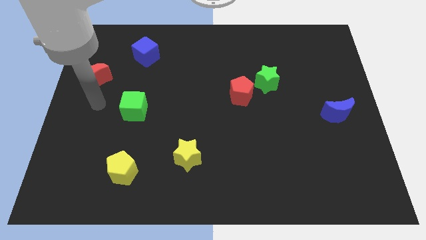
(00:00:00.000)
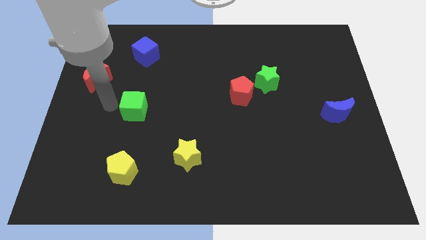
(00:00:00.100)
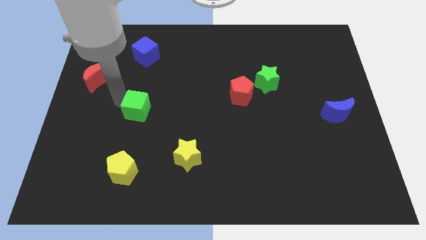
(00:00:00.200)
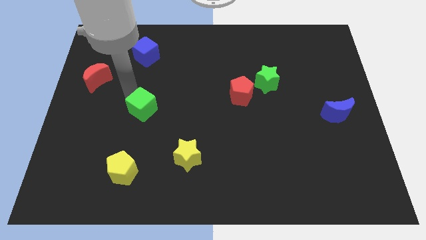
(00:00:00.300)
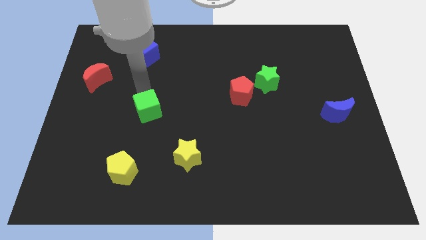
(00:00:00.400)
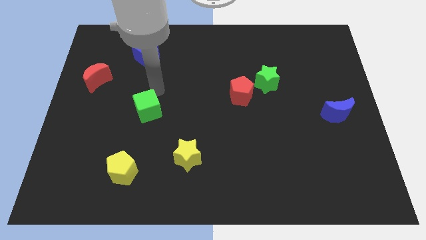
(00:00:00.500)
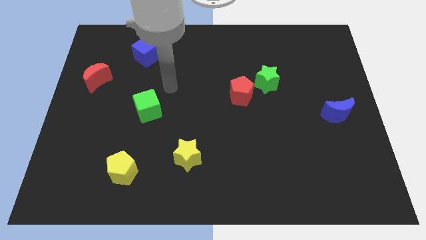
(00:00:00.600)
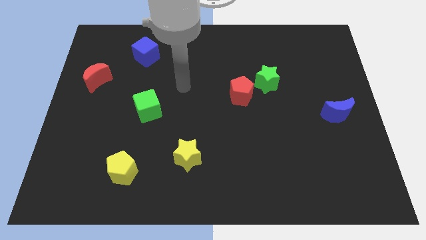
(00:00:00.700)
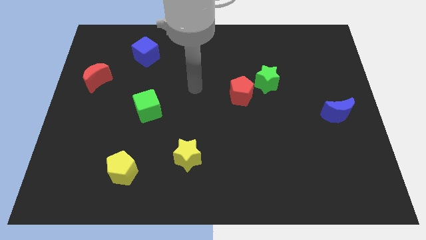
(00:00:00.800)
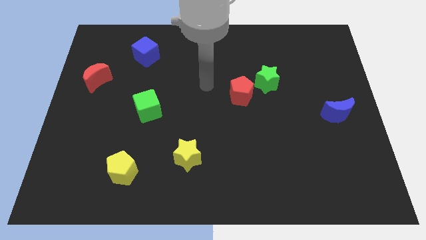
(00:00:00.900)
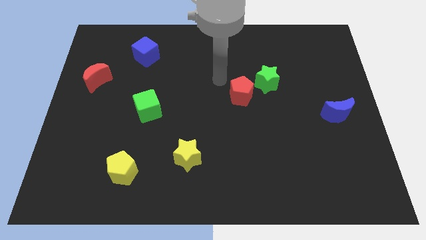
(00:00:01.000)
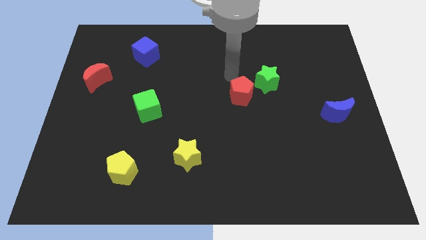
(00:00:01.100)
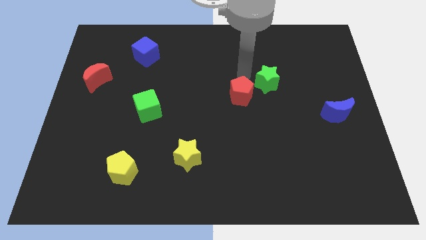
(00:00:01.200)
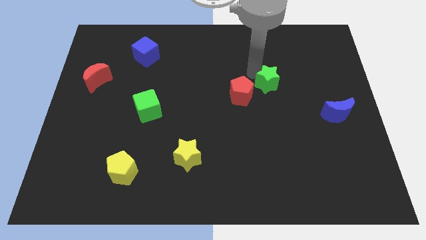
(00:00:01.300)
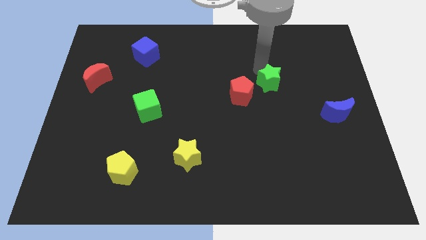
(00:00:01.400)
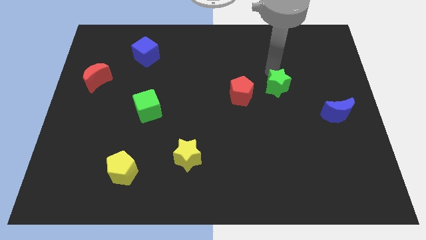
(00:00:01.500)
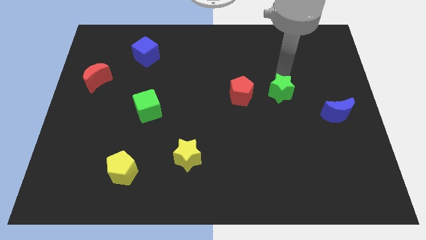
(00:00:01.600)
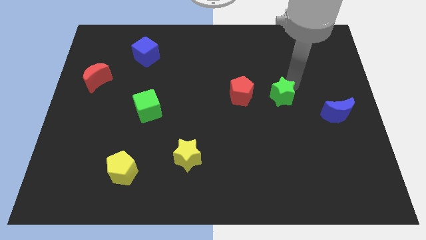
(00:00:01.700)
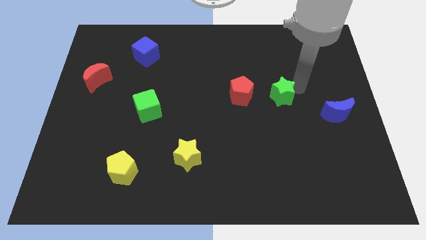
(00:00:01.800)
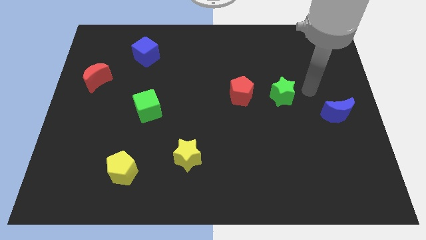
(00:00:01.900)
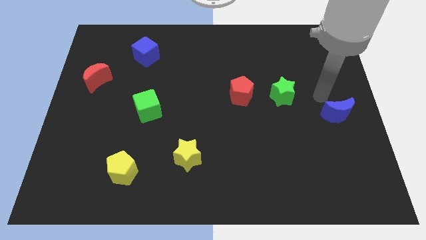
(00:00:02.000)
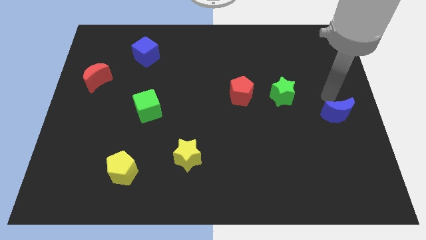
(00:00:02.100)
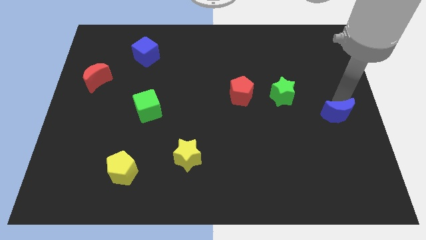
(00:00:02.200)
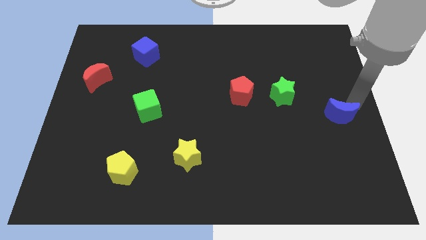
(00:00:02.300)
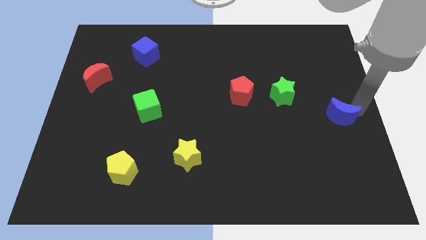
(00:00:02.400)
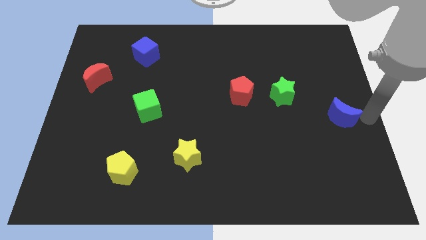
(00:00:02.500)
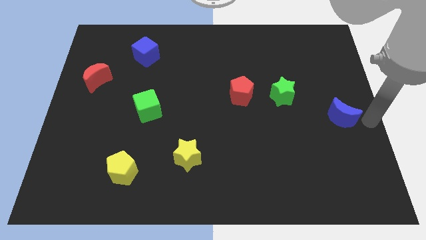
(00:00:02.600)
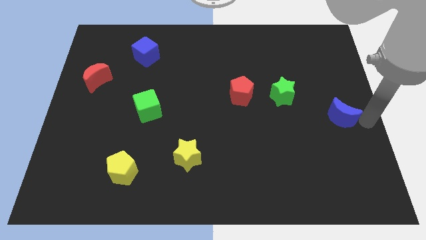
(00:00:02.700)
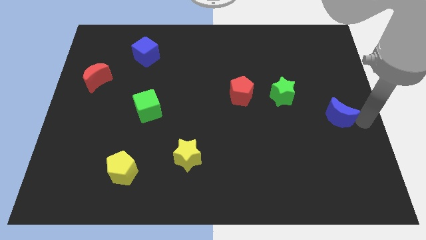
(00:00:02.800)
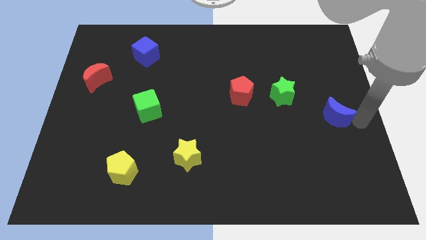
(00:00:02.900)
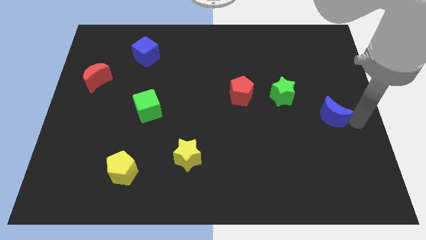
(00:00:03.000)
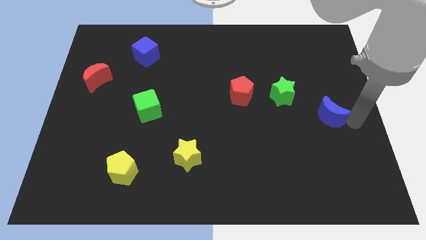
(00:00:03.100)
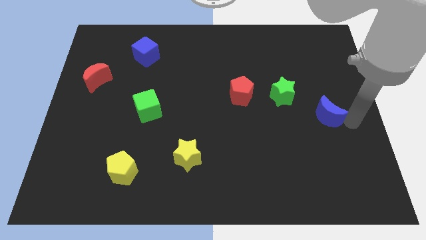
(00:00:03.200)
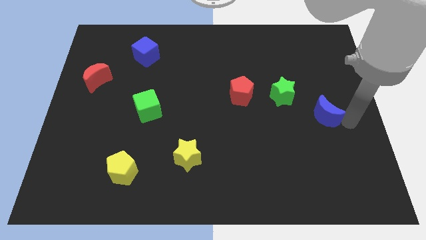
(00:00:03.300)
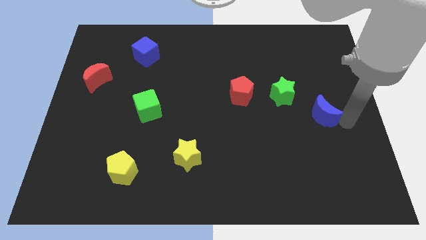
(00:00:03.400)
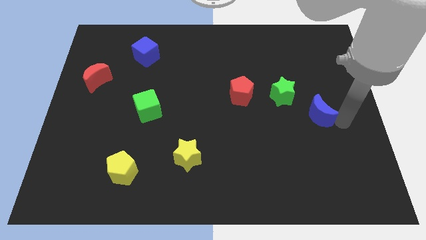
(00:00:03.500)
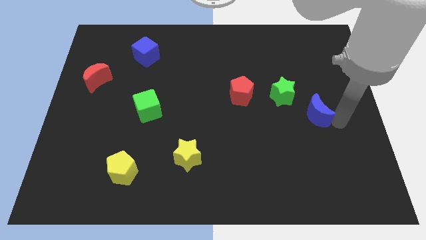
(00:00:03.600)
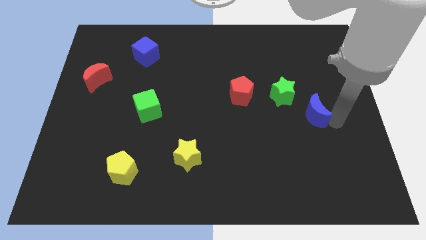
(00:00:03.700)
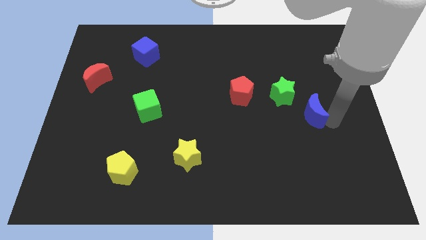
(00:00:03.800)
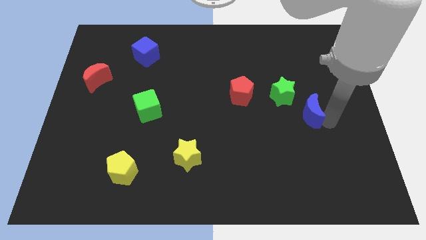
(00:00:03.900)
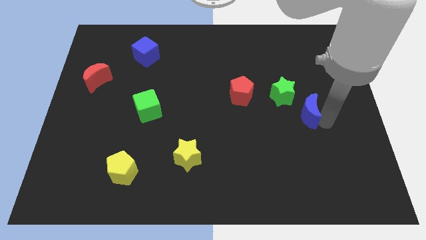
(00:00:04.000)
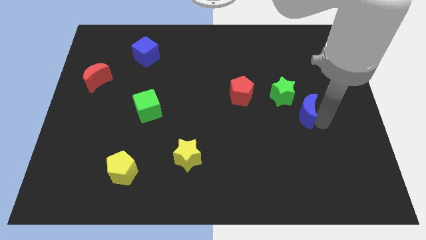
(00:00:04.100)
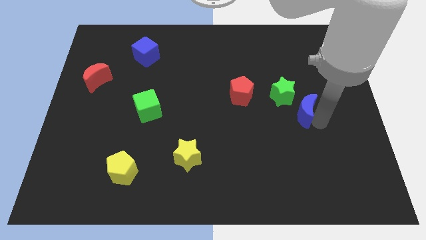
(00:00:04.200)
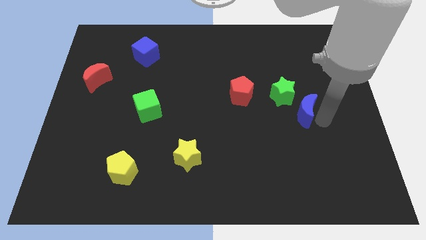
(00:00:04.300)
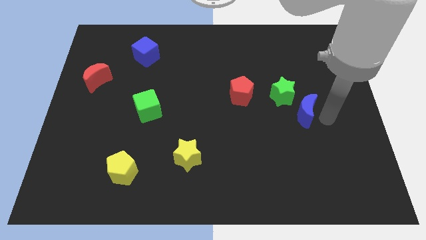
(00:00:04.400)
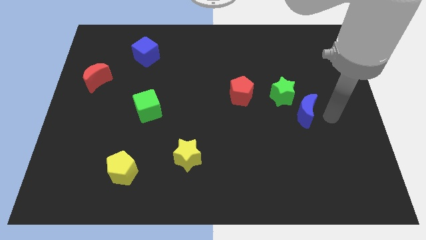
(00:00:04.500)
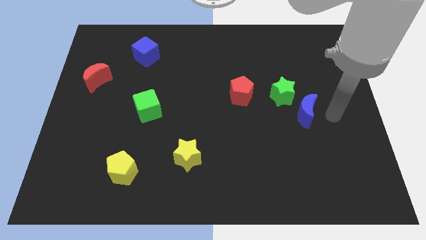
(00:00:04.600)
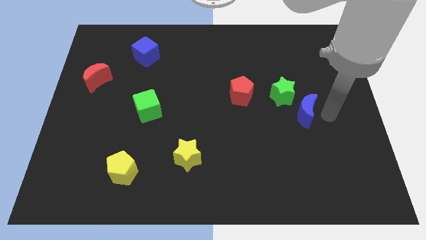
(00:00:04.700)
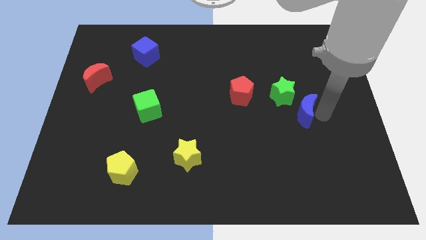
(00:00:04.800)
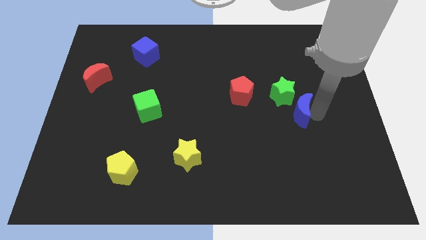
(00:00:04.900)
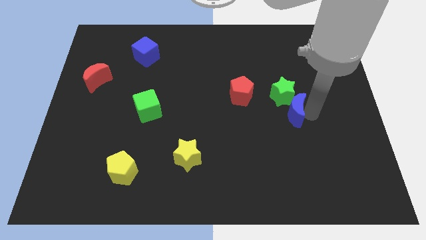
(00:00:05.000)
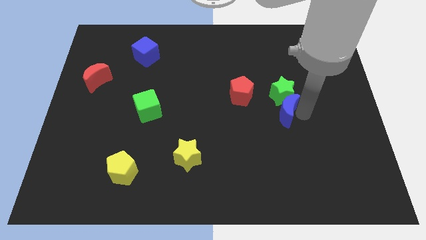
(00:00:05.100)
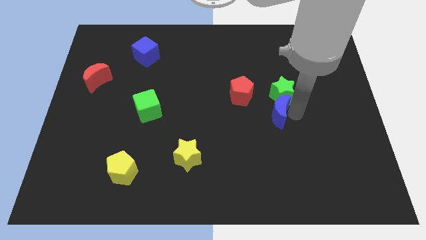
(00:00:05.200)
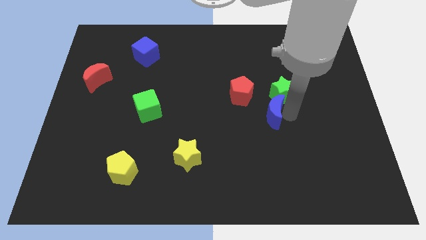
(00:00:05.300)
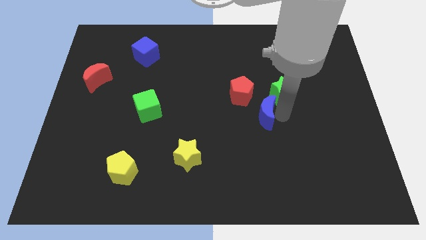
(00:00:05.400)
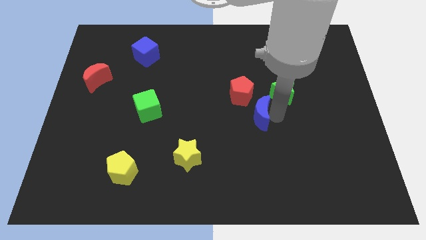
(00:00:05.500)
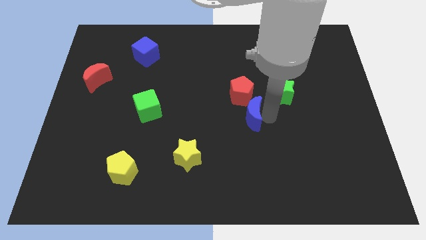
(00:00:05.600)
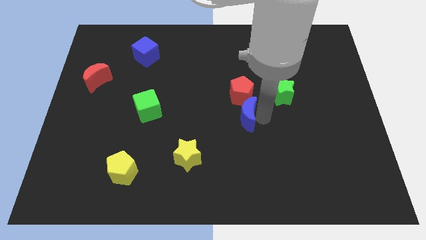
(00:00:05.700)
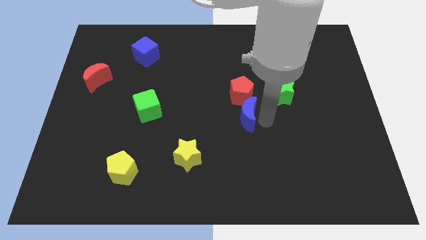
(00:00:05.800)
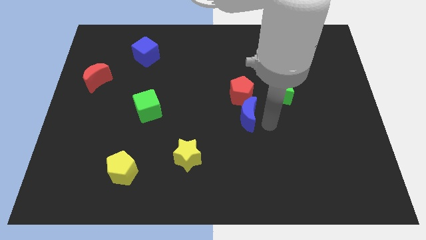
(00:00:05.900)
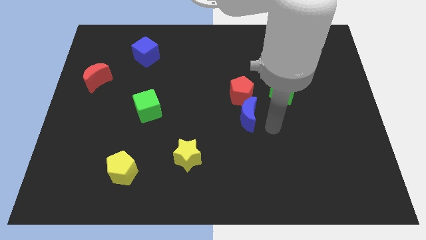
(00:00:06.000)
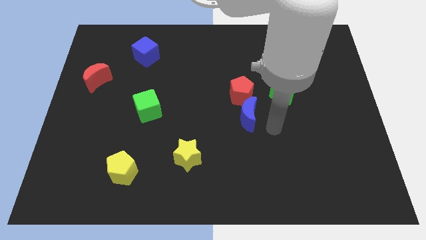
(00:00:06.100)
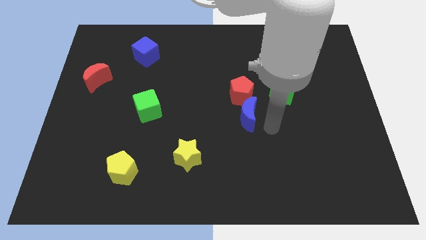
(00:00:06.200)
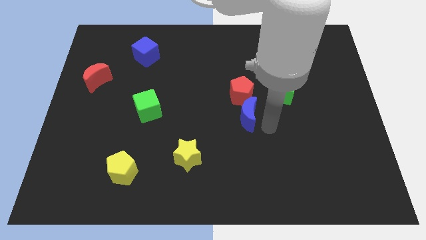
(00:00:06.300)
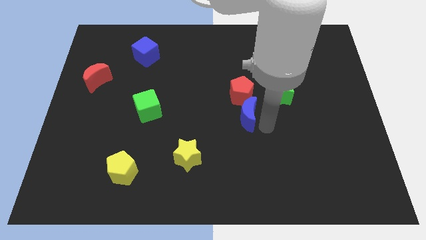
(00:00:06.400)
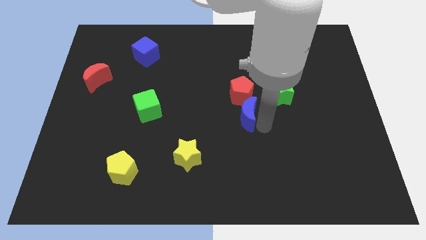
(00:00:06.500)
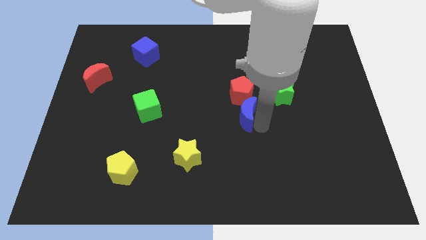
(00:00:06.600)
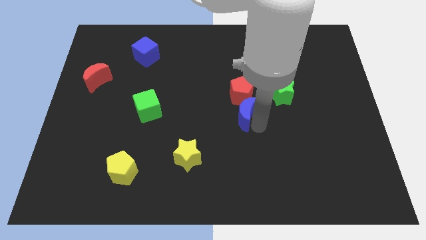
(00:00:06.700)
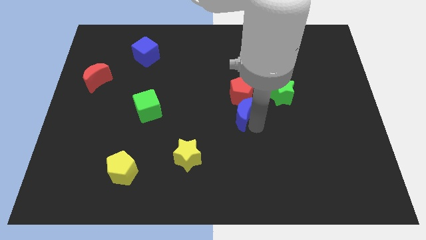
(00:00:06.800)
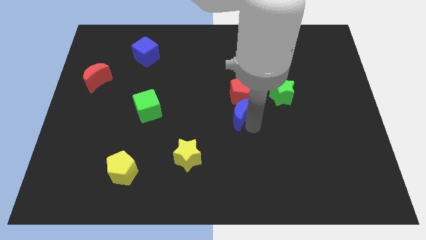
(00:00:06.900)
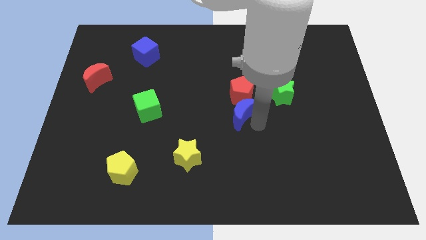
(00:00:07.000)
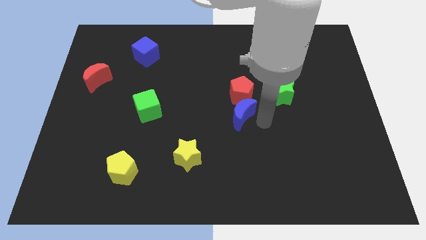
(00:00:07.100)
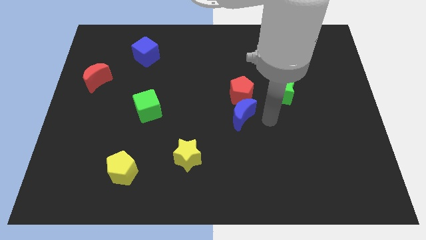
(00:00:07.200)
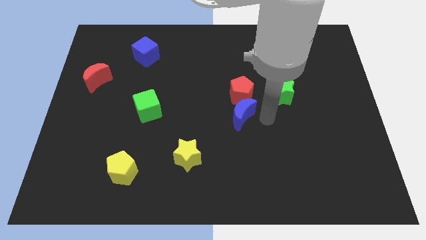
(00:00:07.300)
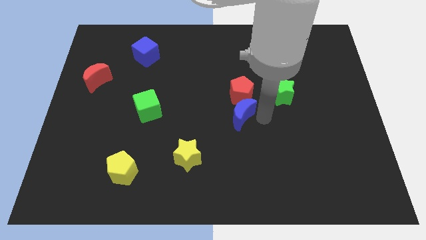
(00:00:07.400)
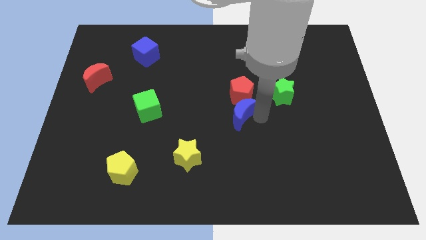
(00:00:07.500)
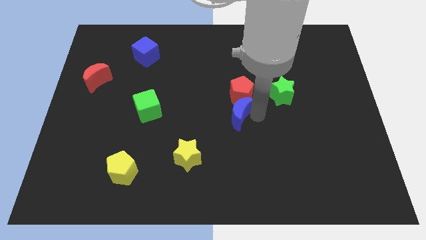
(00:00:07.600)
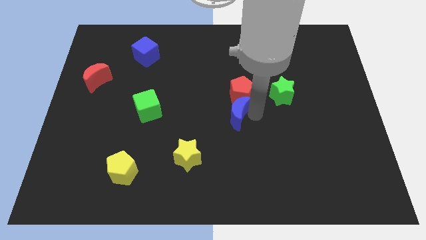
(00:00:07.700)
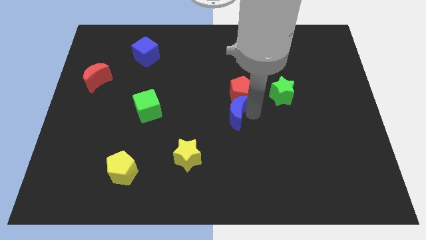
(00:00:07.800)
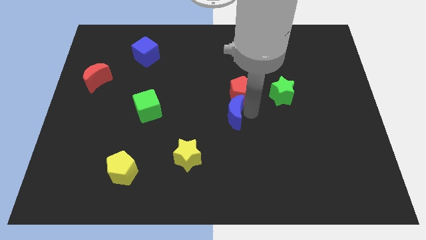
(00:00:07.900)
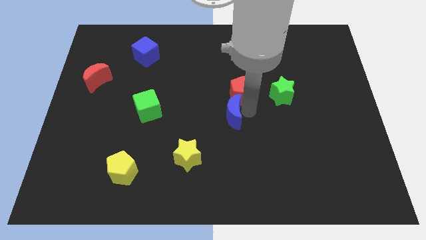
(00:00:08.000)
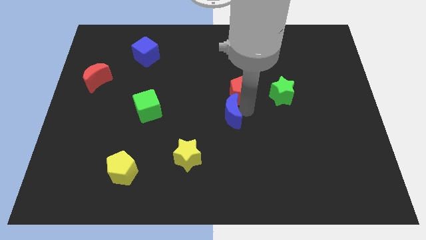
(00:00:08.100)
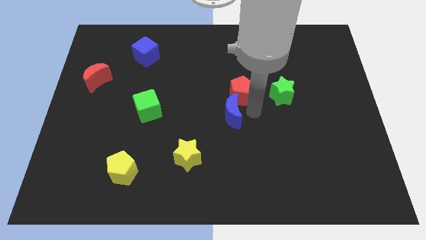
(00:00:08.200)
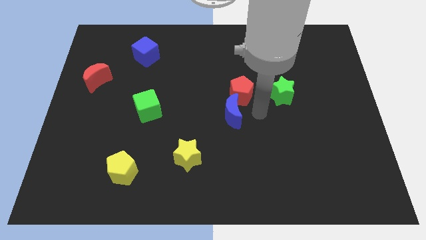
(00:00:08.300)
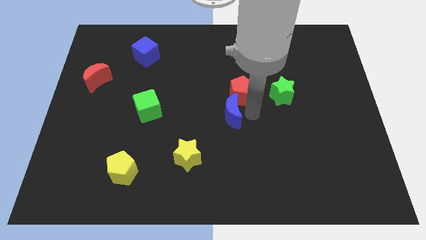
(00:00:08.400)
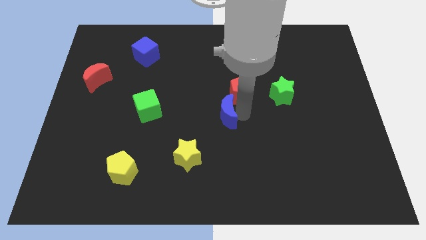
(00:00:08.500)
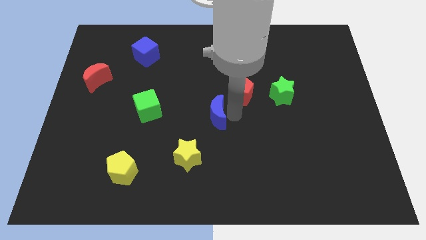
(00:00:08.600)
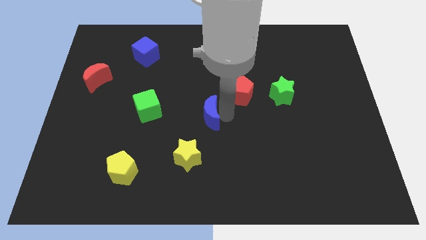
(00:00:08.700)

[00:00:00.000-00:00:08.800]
slide the blue moon above the yellow star
